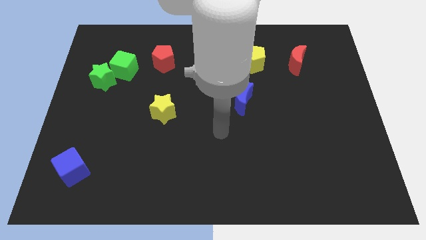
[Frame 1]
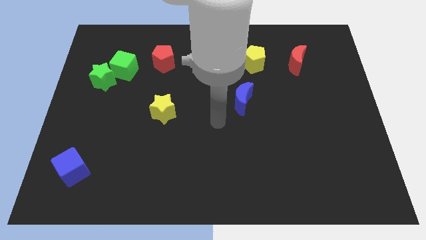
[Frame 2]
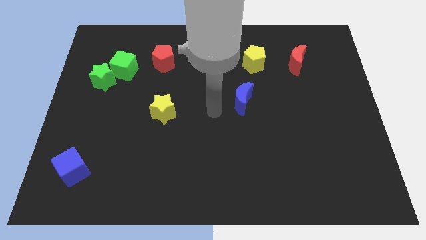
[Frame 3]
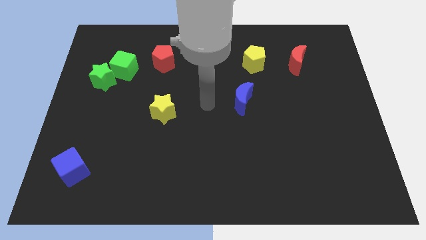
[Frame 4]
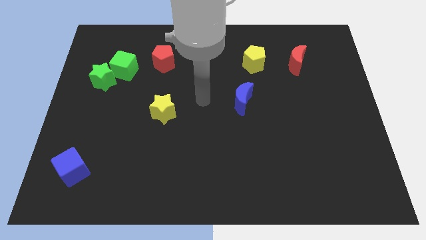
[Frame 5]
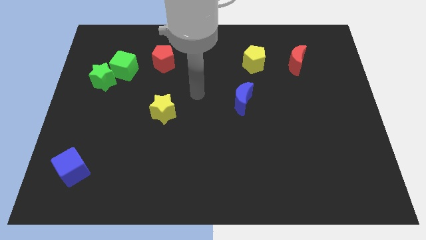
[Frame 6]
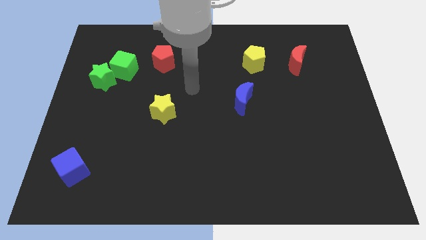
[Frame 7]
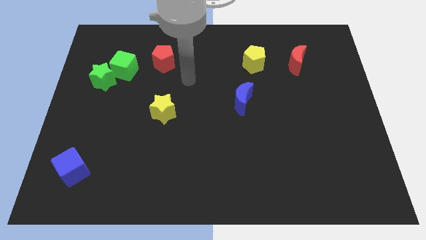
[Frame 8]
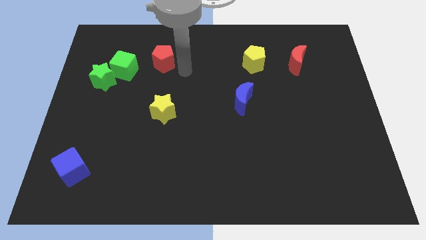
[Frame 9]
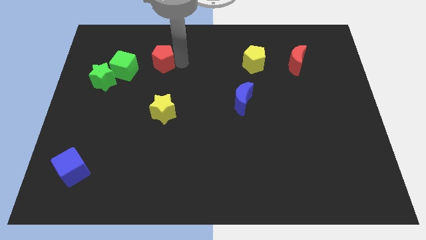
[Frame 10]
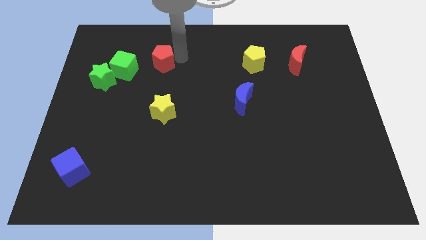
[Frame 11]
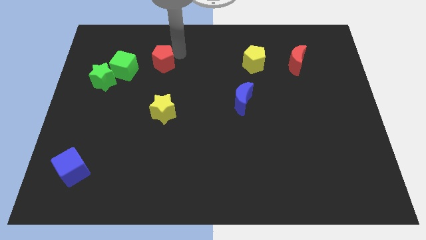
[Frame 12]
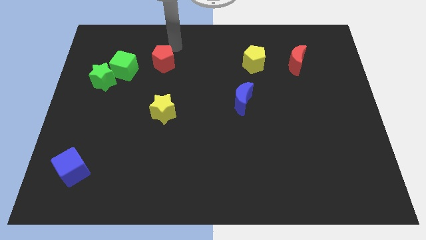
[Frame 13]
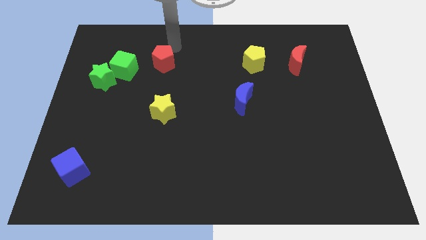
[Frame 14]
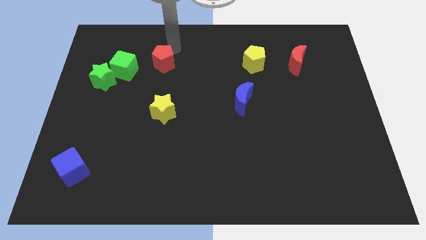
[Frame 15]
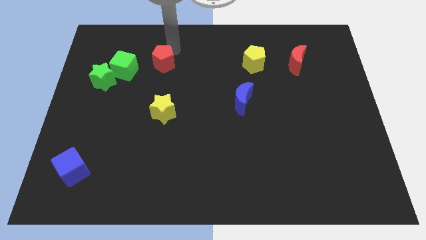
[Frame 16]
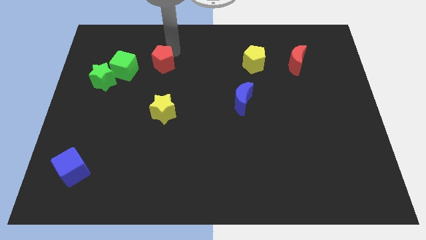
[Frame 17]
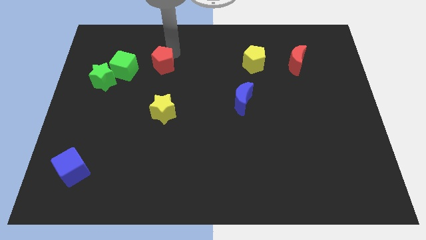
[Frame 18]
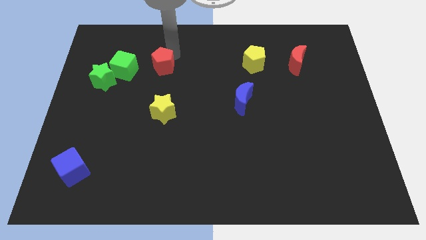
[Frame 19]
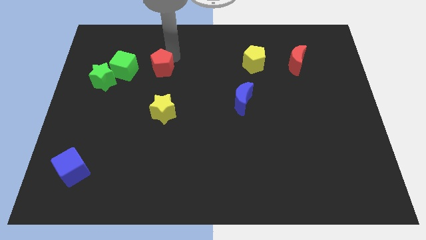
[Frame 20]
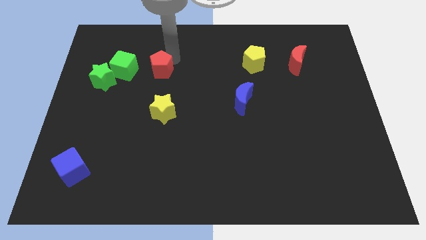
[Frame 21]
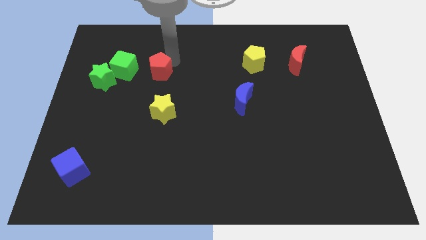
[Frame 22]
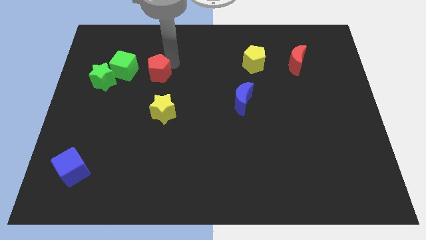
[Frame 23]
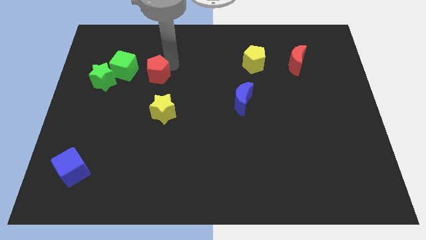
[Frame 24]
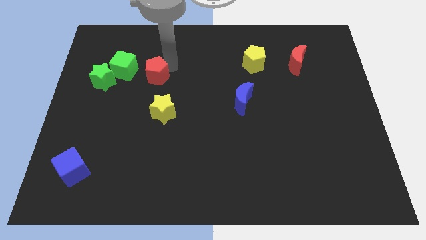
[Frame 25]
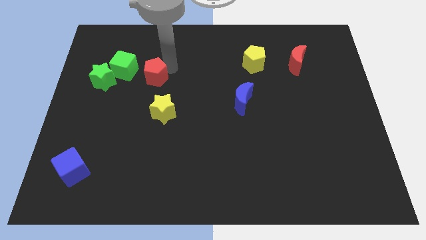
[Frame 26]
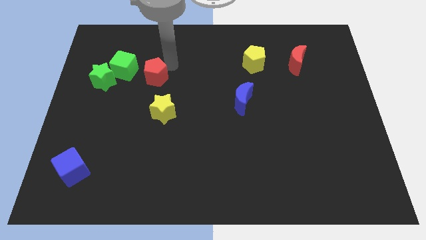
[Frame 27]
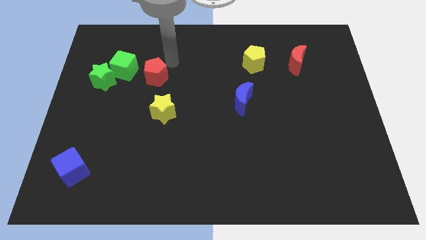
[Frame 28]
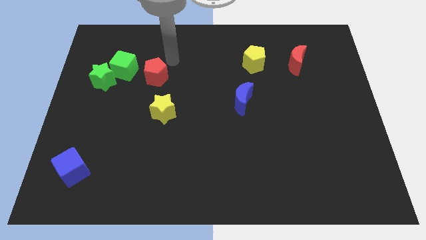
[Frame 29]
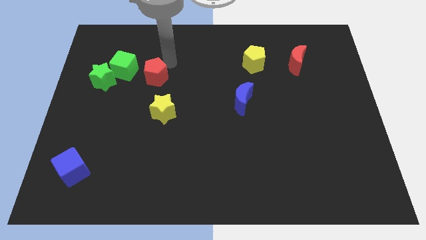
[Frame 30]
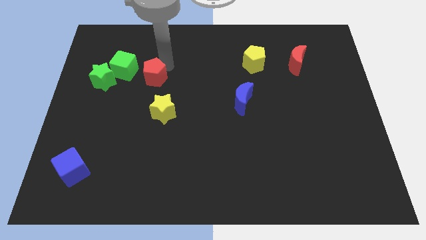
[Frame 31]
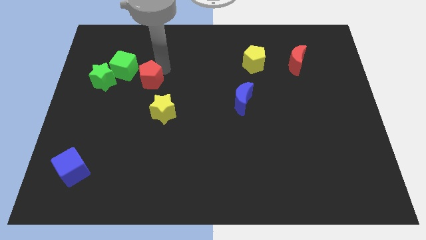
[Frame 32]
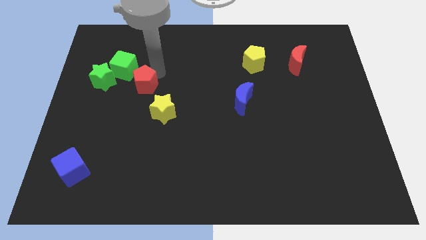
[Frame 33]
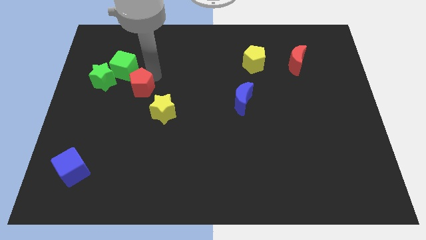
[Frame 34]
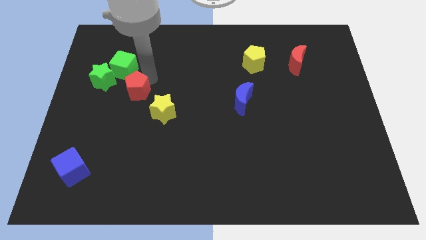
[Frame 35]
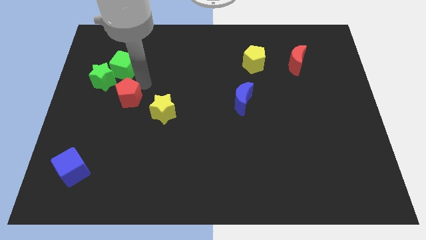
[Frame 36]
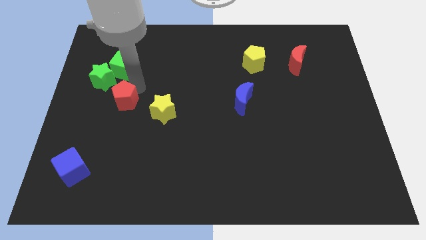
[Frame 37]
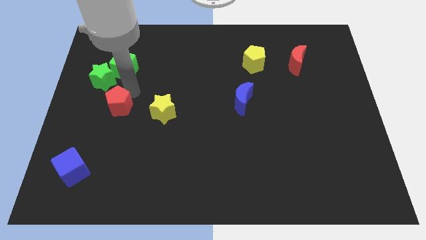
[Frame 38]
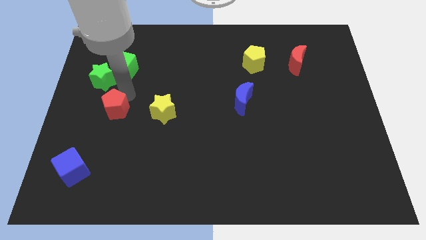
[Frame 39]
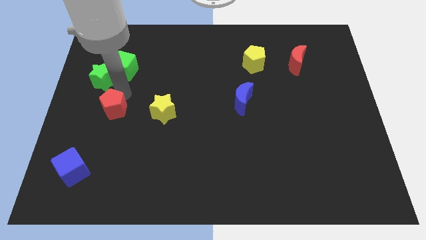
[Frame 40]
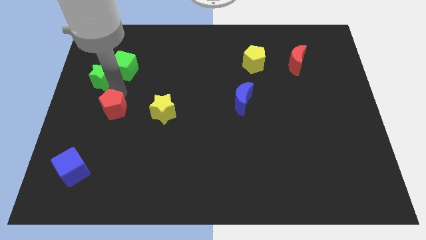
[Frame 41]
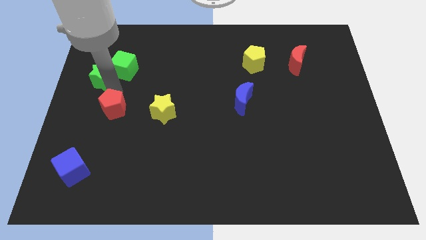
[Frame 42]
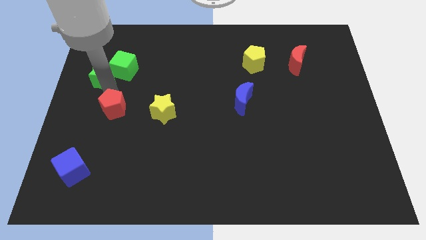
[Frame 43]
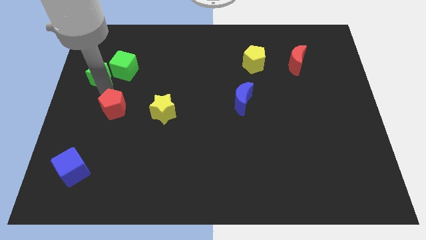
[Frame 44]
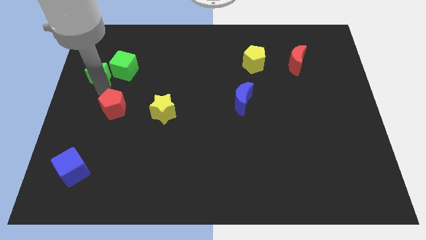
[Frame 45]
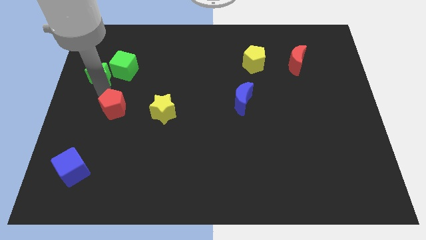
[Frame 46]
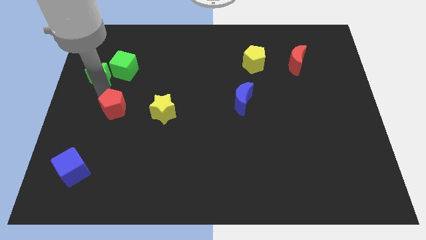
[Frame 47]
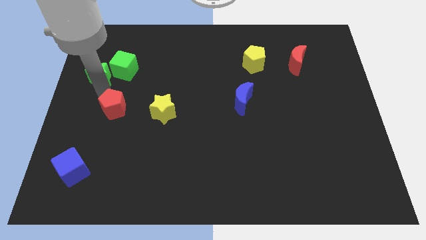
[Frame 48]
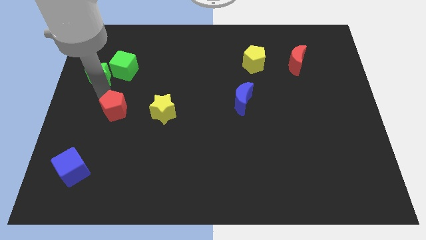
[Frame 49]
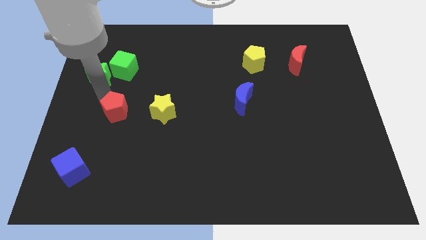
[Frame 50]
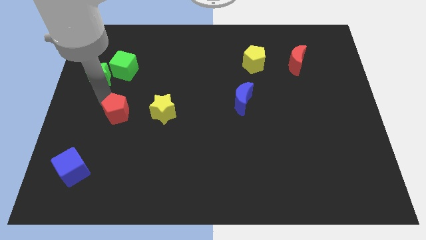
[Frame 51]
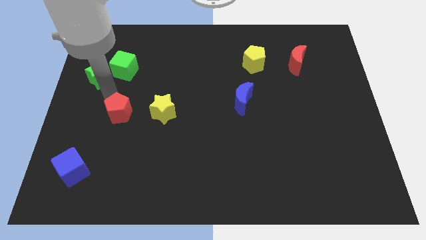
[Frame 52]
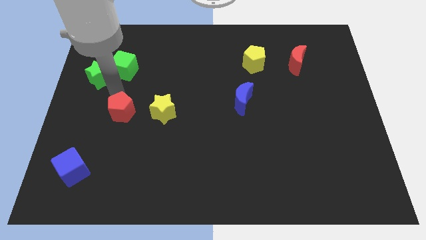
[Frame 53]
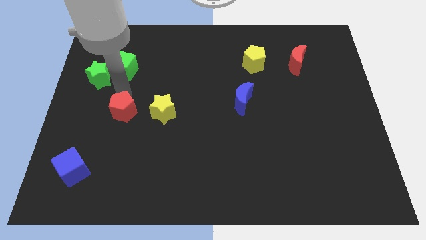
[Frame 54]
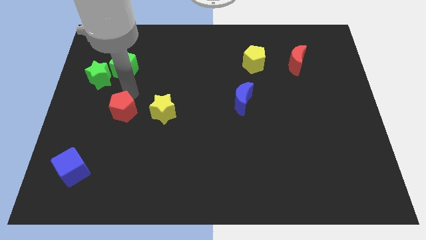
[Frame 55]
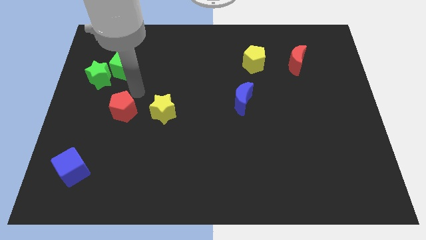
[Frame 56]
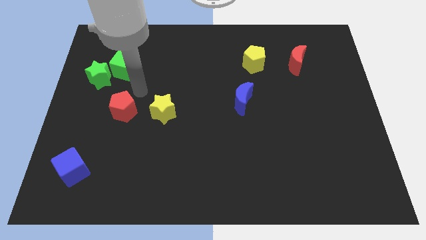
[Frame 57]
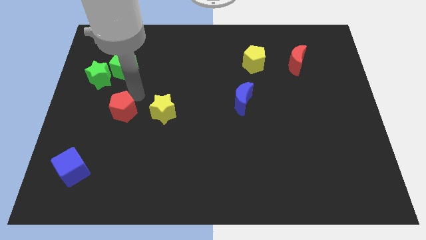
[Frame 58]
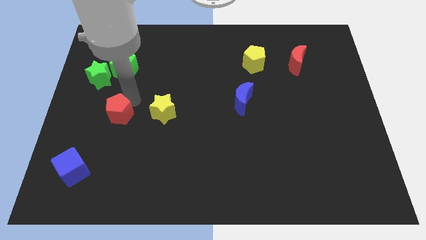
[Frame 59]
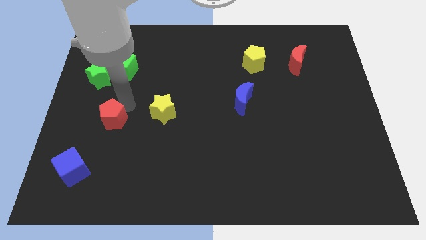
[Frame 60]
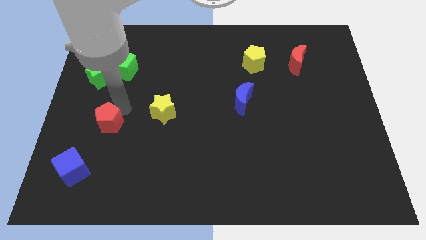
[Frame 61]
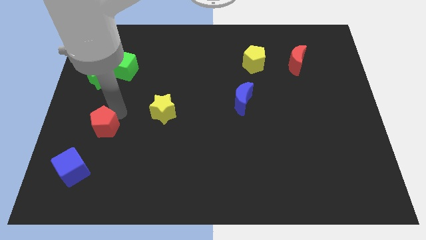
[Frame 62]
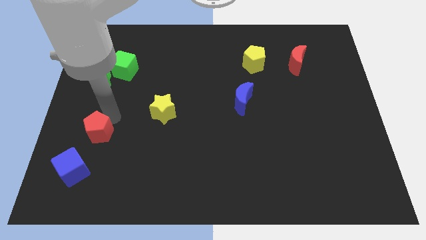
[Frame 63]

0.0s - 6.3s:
slide the red pentagon to the top right of the blue cube

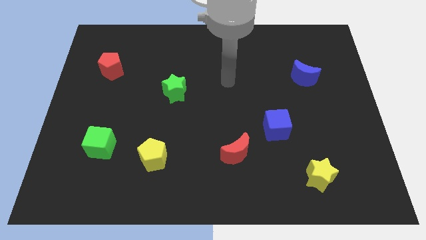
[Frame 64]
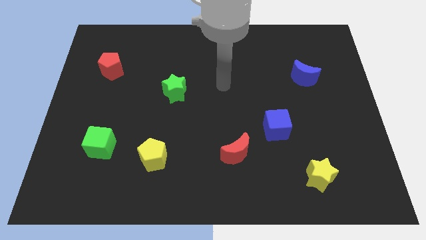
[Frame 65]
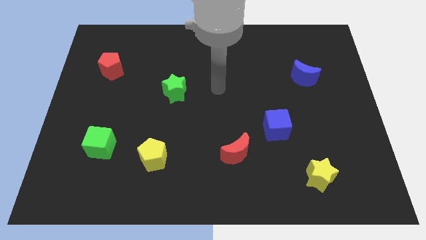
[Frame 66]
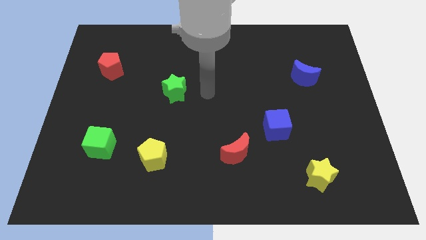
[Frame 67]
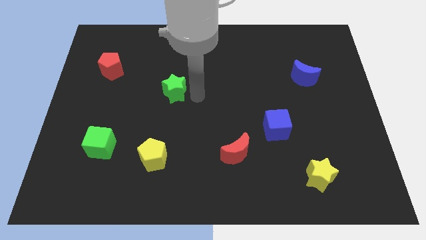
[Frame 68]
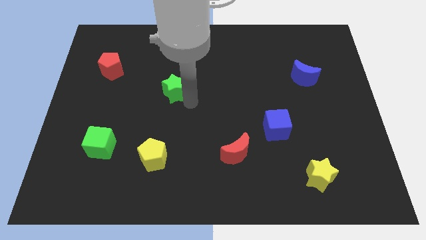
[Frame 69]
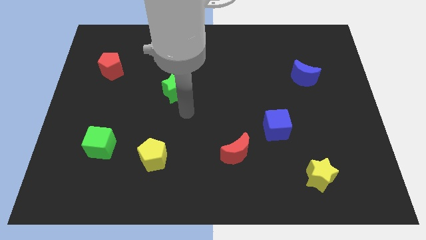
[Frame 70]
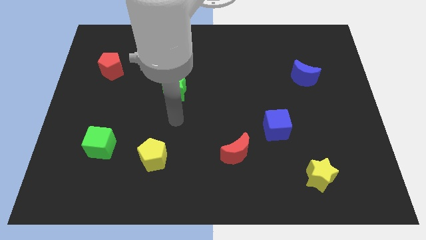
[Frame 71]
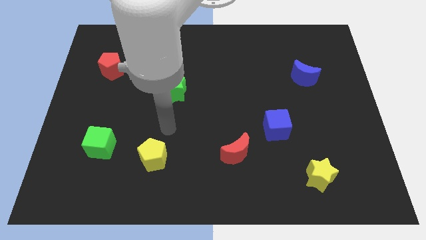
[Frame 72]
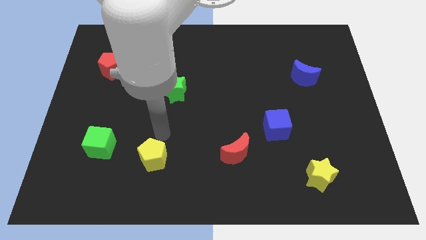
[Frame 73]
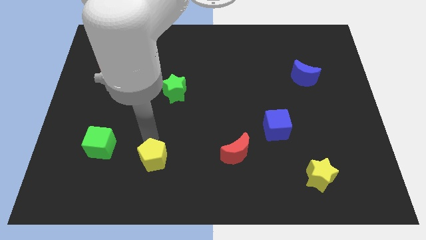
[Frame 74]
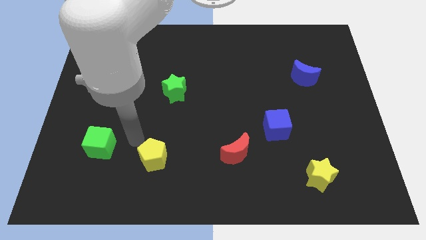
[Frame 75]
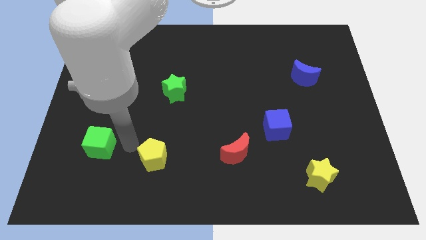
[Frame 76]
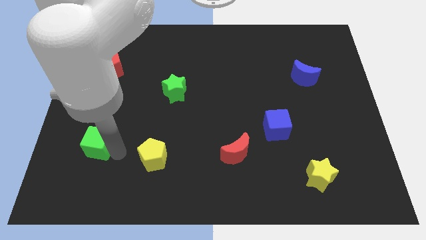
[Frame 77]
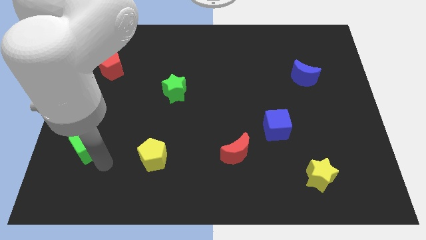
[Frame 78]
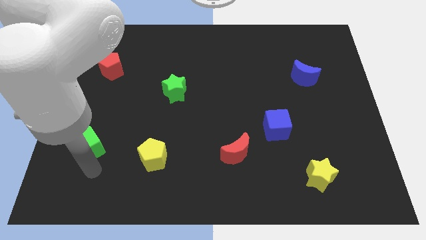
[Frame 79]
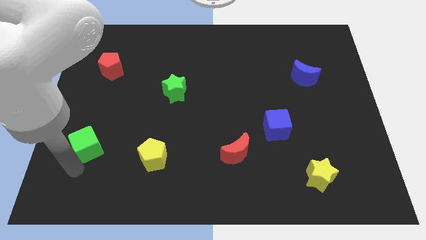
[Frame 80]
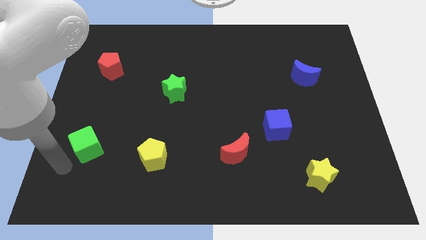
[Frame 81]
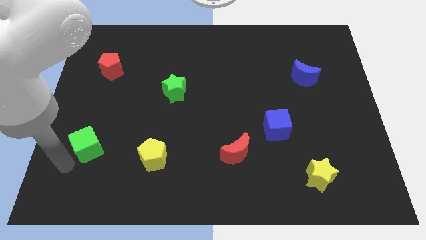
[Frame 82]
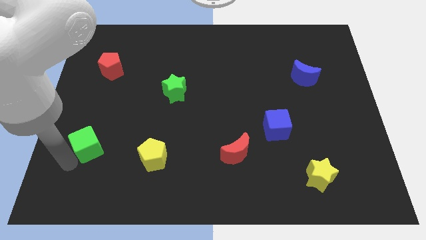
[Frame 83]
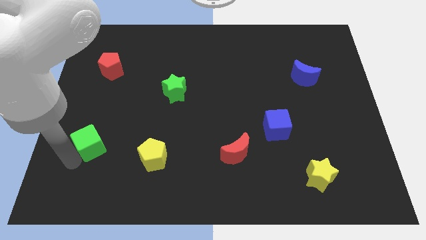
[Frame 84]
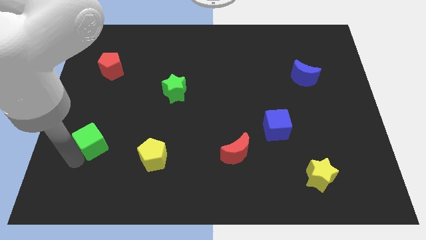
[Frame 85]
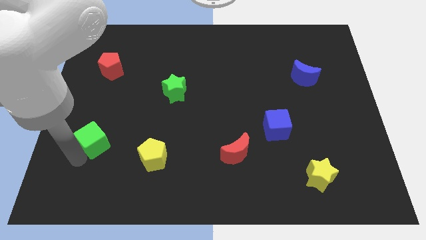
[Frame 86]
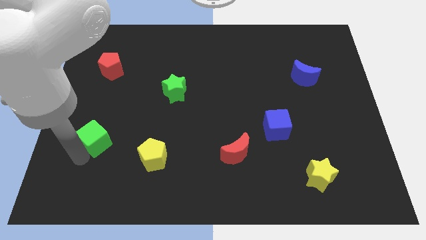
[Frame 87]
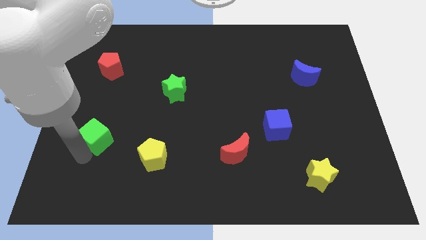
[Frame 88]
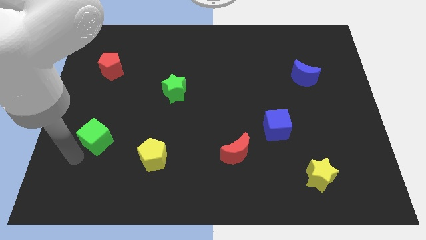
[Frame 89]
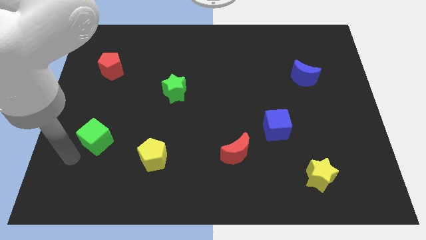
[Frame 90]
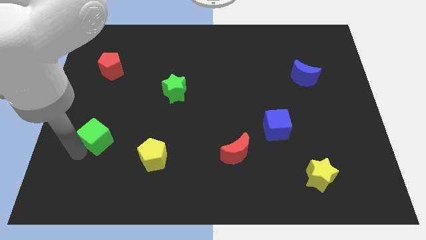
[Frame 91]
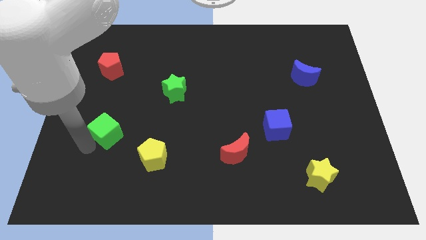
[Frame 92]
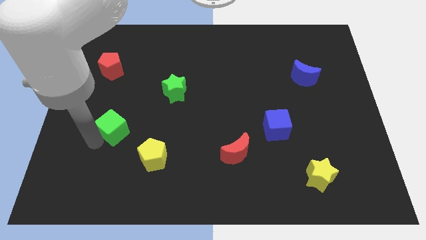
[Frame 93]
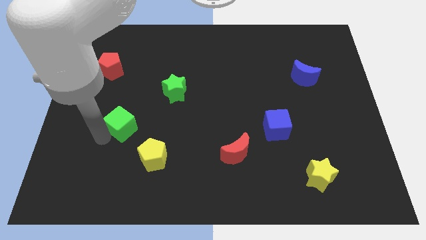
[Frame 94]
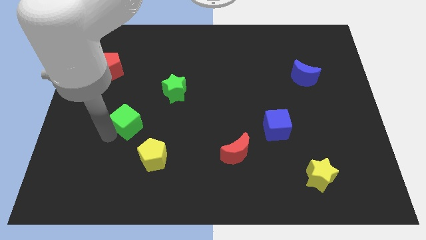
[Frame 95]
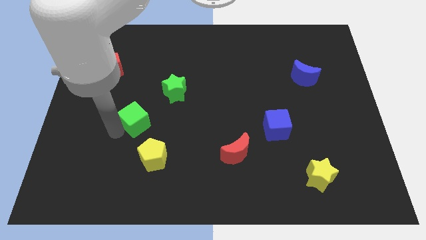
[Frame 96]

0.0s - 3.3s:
move the green cube to the bottom left of the green star
